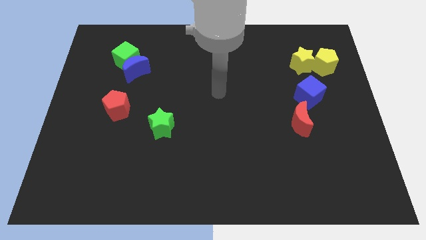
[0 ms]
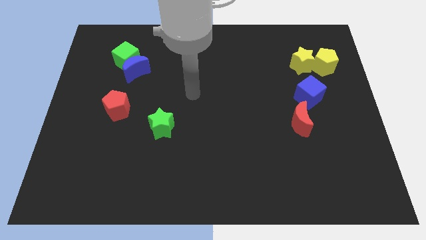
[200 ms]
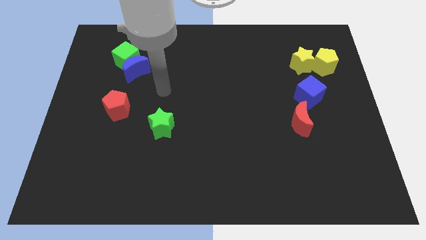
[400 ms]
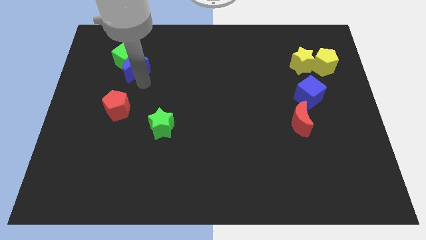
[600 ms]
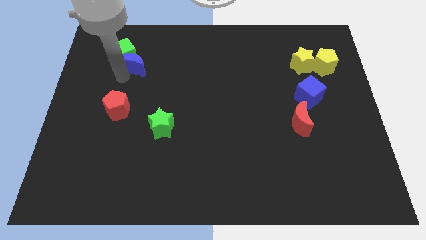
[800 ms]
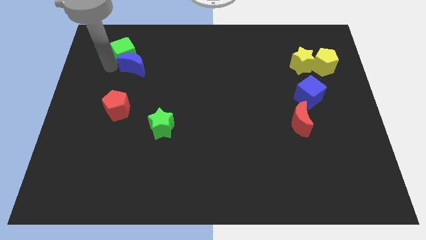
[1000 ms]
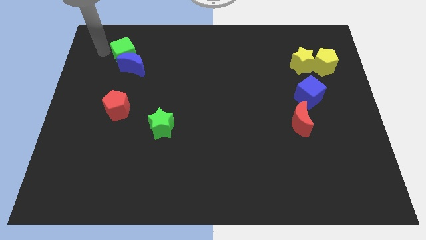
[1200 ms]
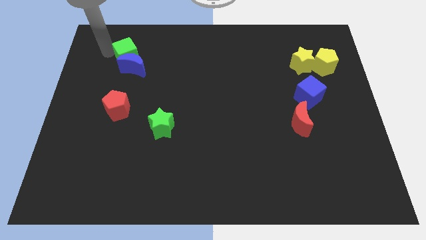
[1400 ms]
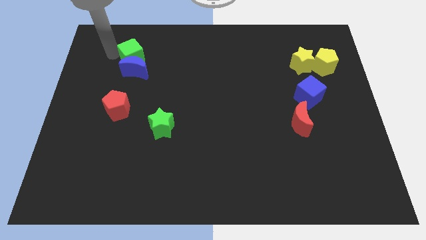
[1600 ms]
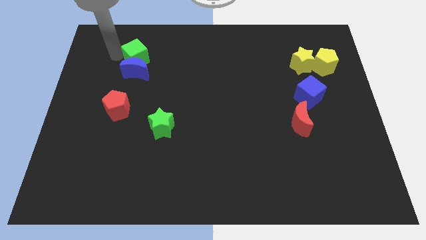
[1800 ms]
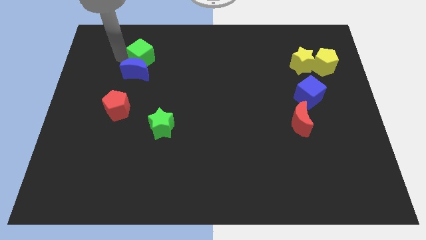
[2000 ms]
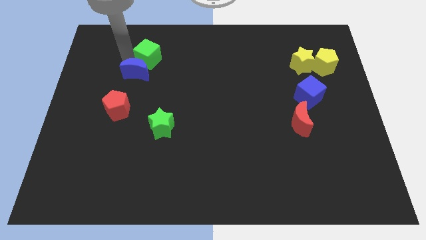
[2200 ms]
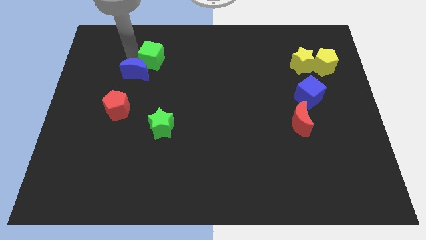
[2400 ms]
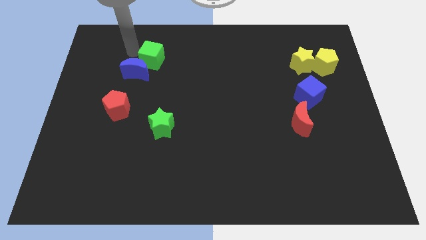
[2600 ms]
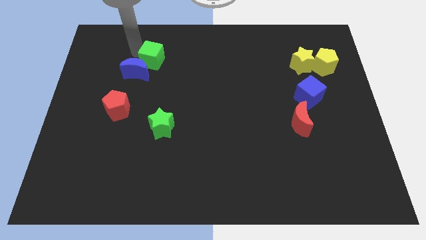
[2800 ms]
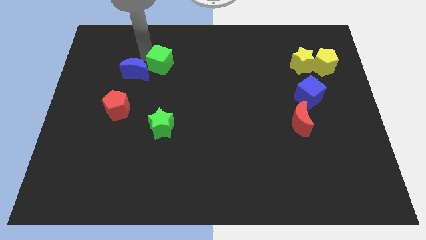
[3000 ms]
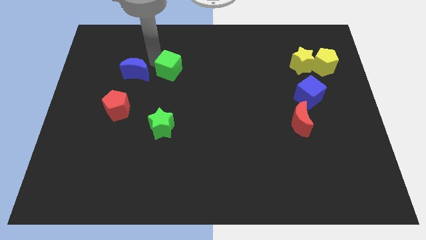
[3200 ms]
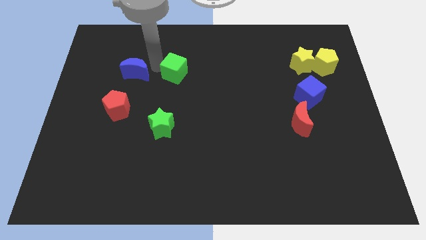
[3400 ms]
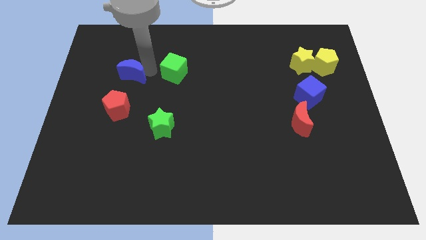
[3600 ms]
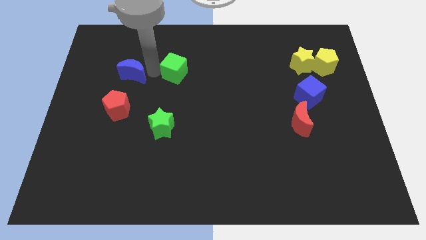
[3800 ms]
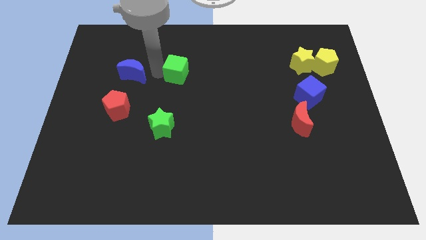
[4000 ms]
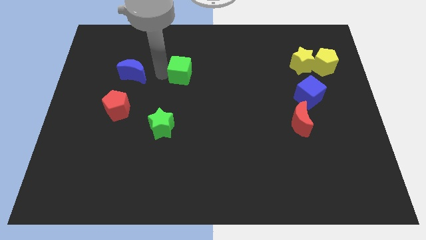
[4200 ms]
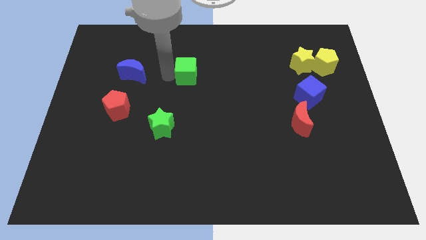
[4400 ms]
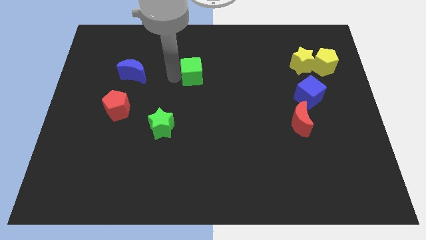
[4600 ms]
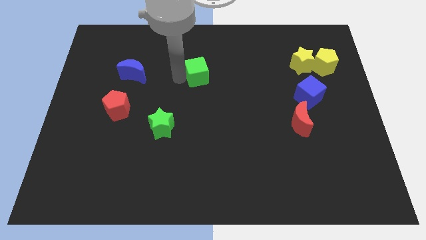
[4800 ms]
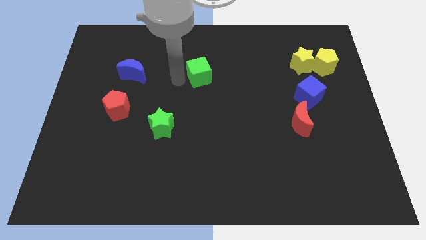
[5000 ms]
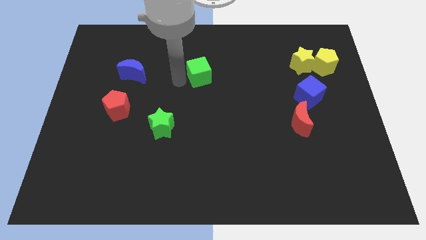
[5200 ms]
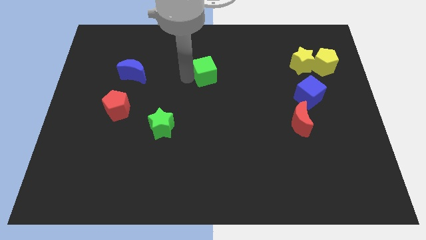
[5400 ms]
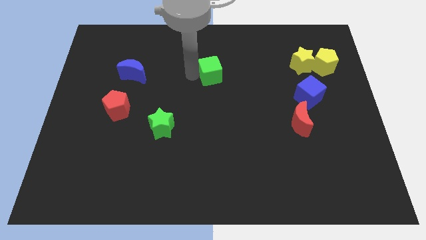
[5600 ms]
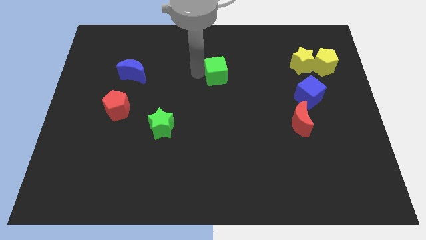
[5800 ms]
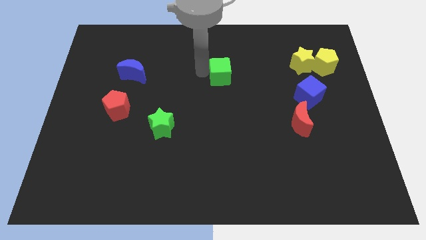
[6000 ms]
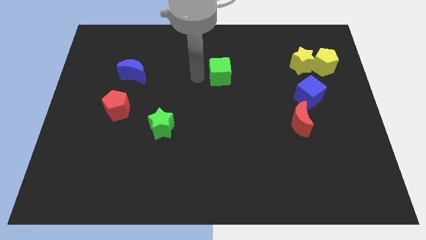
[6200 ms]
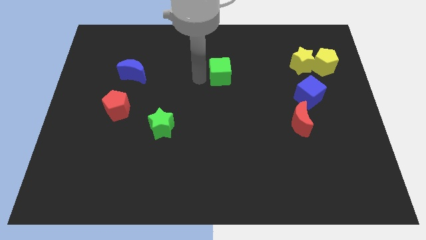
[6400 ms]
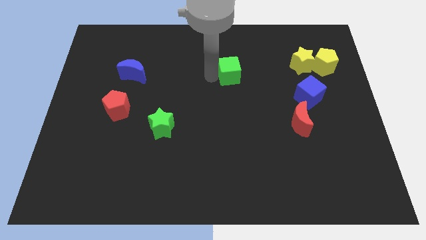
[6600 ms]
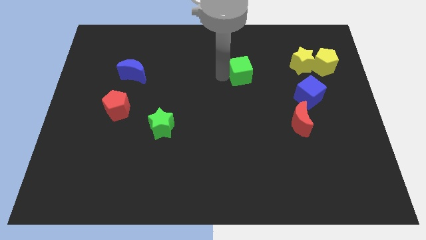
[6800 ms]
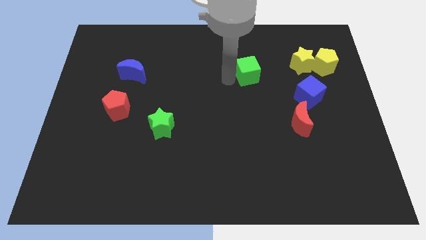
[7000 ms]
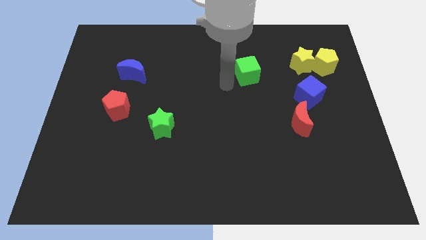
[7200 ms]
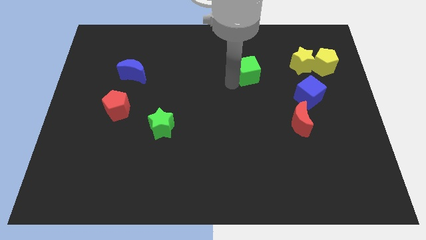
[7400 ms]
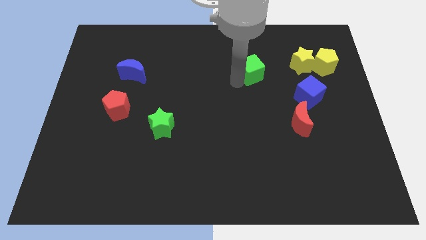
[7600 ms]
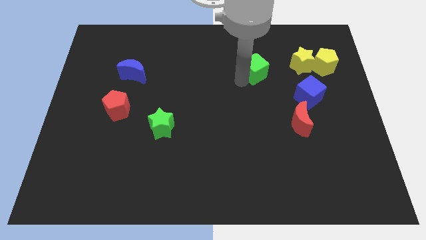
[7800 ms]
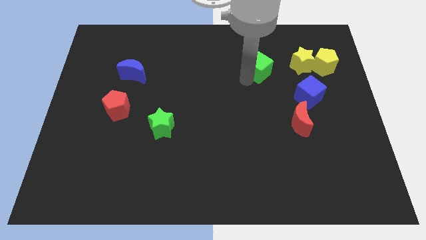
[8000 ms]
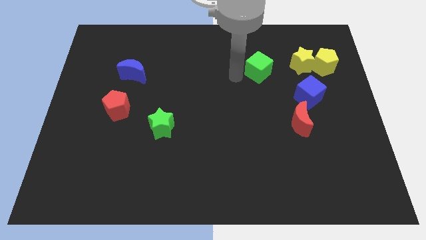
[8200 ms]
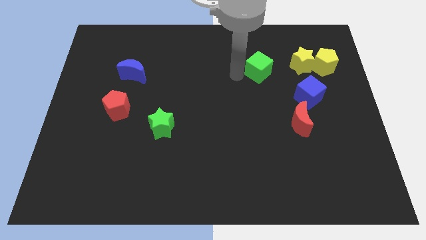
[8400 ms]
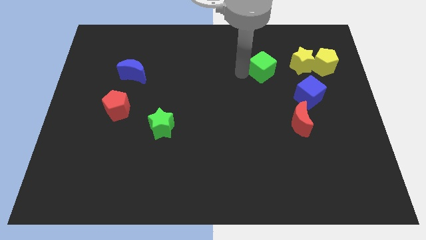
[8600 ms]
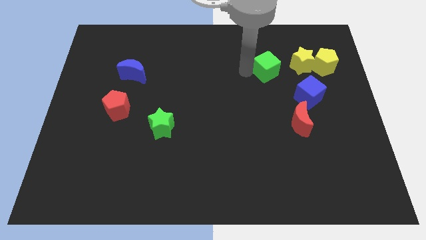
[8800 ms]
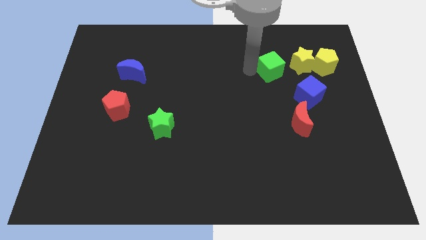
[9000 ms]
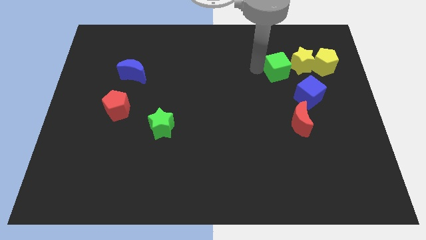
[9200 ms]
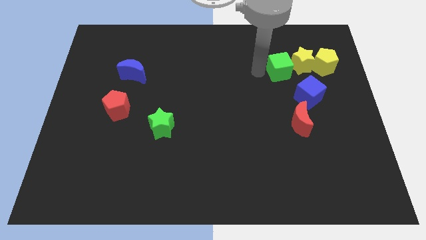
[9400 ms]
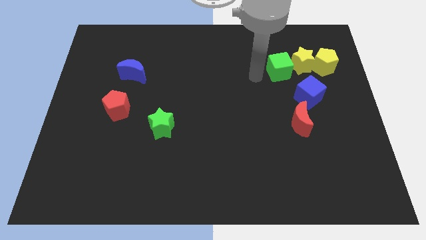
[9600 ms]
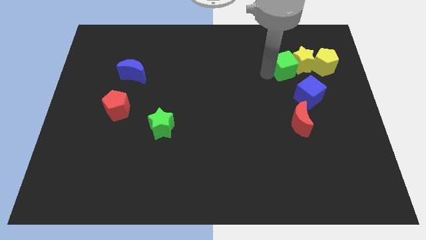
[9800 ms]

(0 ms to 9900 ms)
slide the green cube next to the yellow star

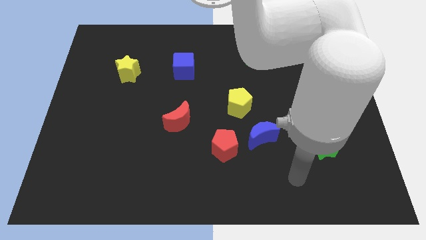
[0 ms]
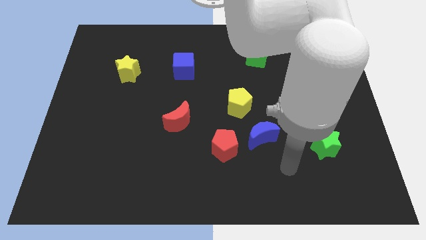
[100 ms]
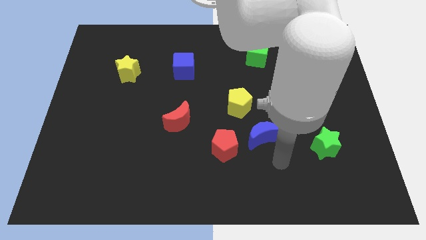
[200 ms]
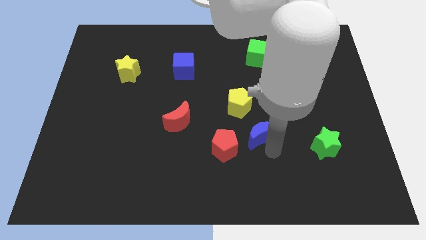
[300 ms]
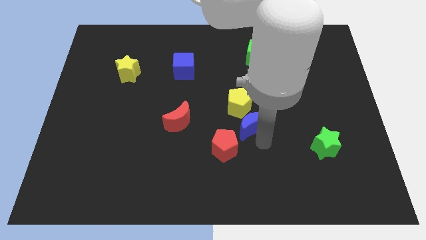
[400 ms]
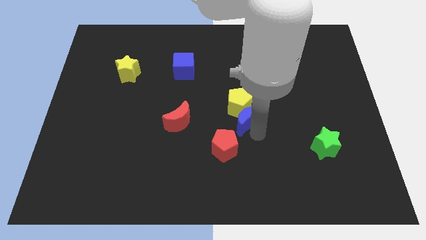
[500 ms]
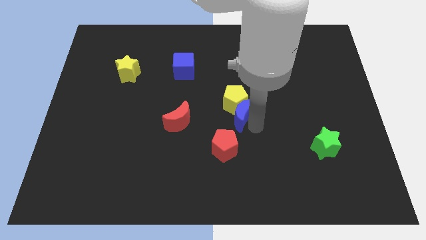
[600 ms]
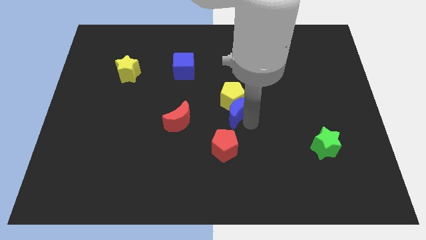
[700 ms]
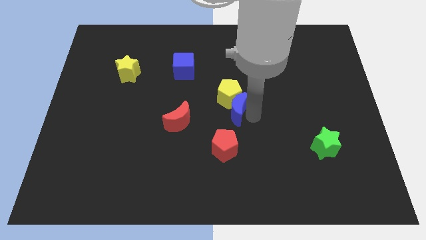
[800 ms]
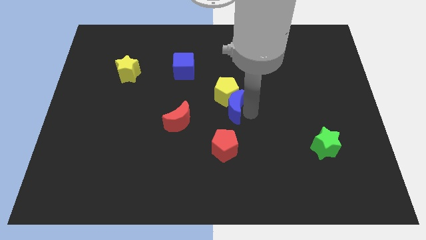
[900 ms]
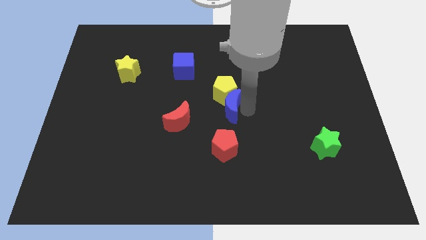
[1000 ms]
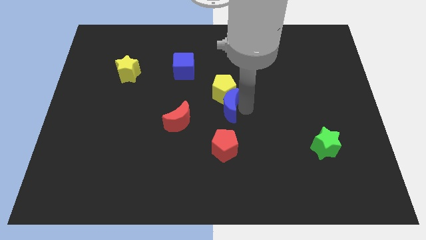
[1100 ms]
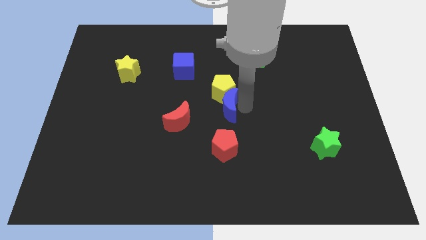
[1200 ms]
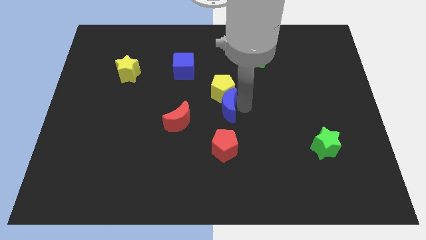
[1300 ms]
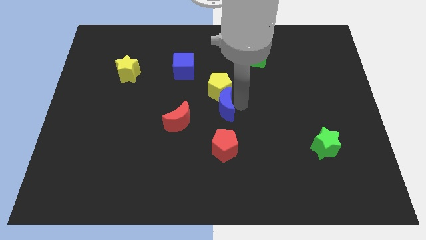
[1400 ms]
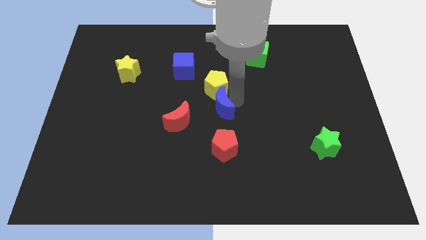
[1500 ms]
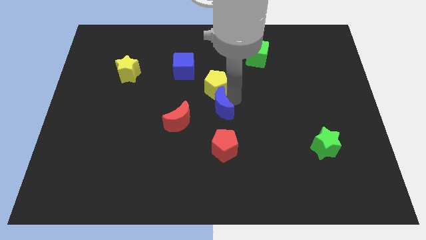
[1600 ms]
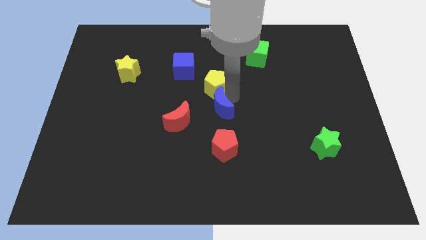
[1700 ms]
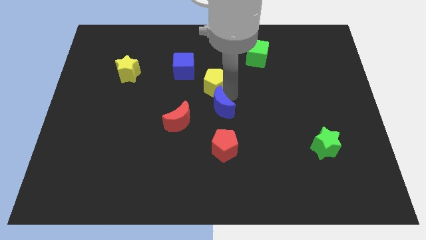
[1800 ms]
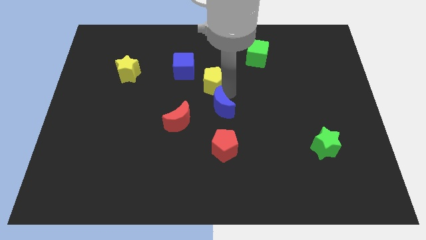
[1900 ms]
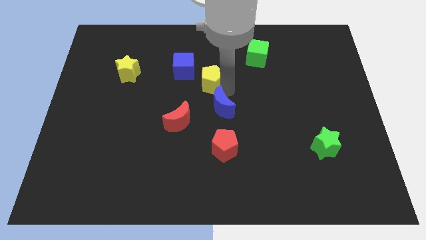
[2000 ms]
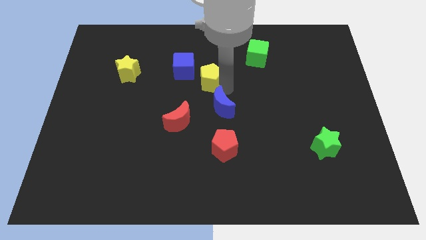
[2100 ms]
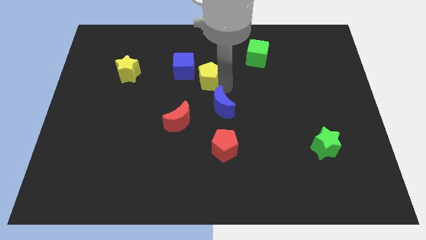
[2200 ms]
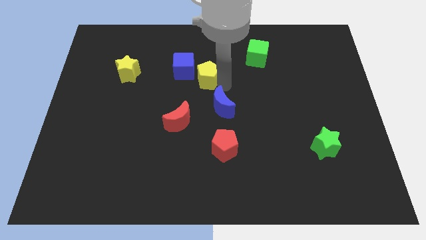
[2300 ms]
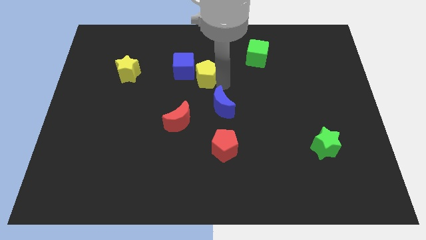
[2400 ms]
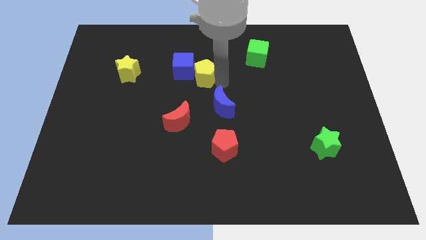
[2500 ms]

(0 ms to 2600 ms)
push the yellow pentagon next to the blue cube

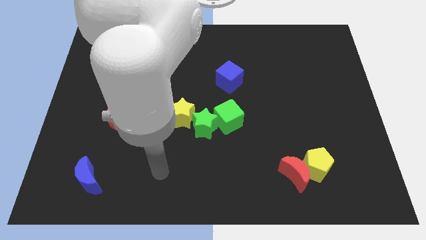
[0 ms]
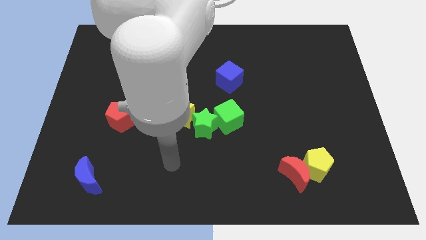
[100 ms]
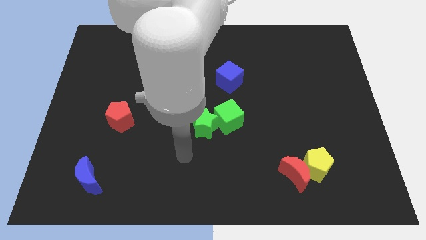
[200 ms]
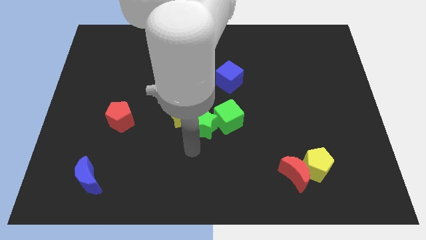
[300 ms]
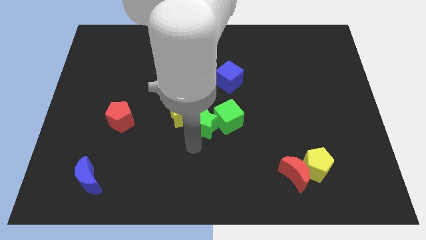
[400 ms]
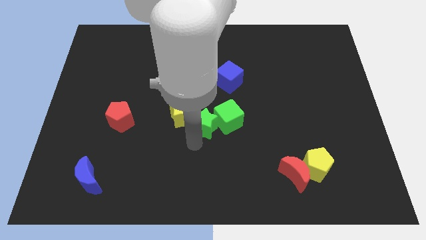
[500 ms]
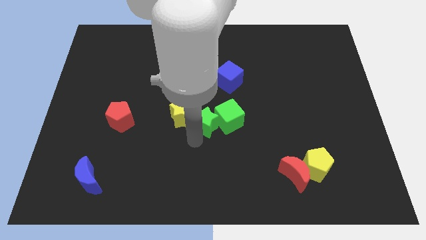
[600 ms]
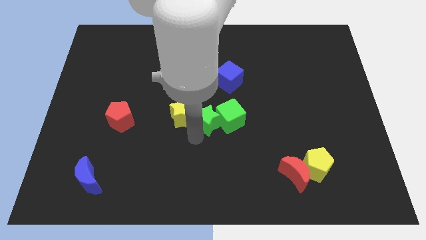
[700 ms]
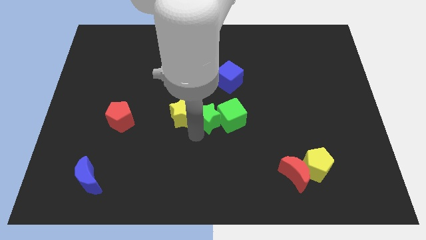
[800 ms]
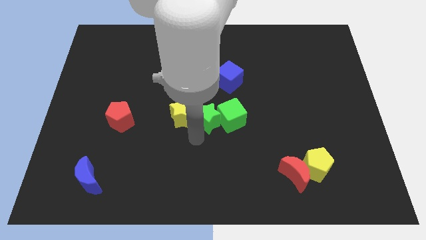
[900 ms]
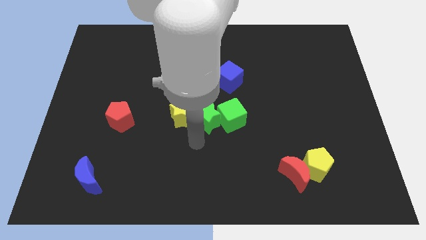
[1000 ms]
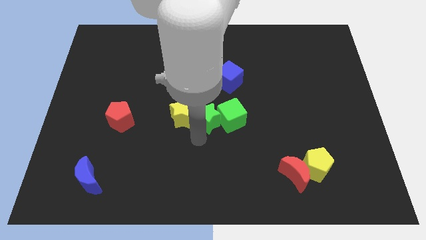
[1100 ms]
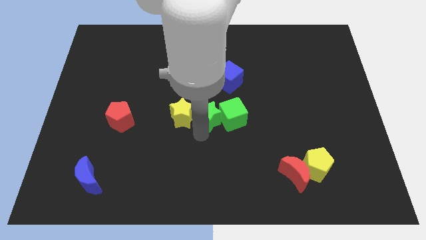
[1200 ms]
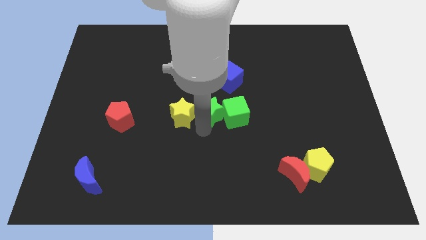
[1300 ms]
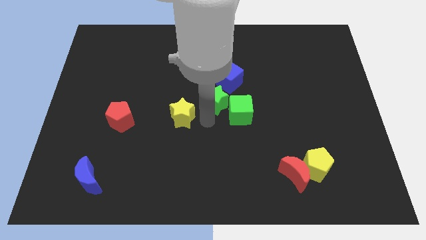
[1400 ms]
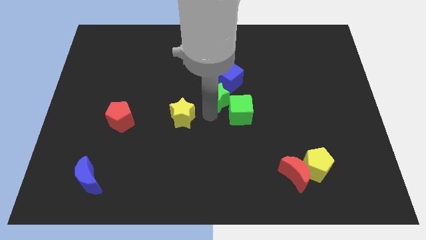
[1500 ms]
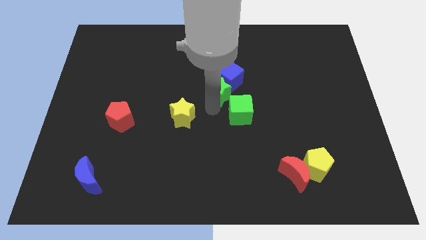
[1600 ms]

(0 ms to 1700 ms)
slide the green star to the blue cube
